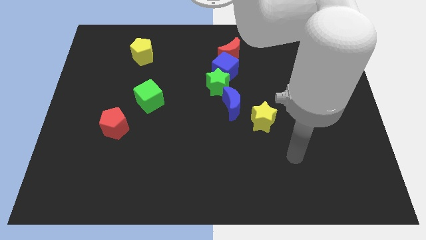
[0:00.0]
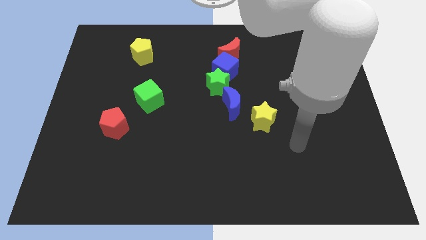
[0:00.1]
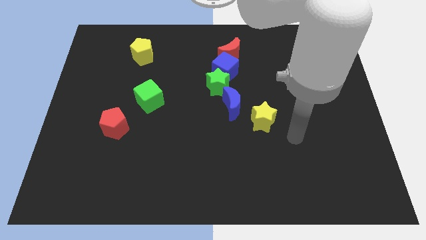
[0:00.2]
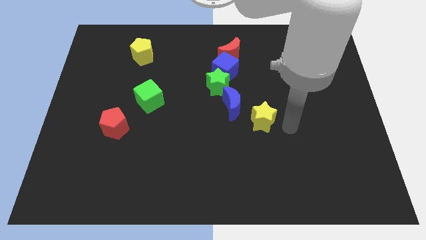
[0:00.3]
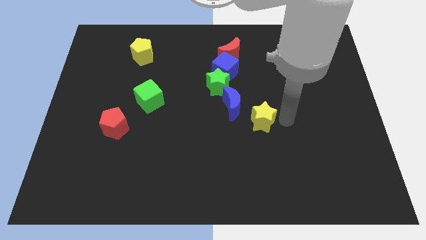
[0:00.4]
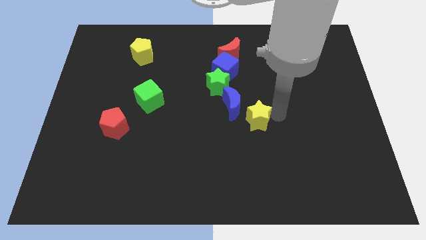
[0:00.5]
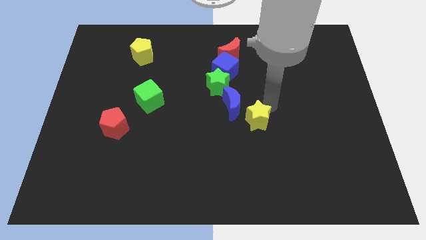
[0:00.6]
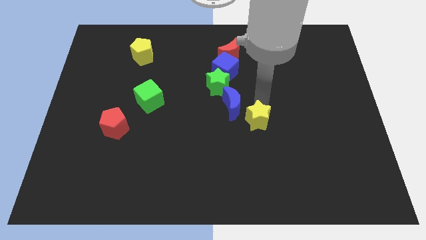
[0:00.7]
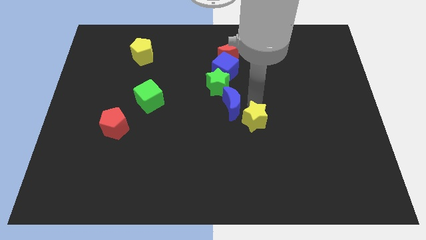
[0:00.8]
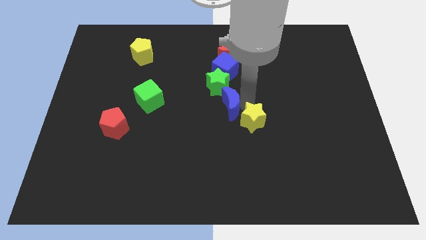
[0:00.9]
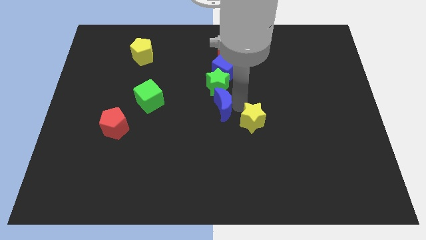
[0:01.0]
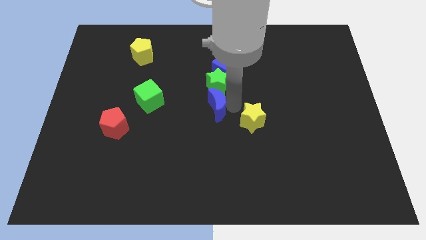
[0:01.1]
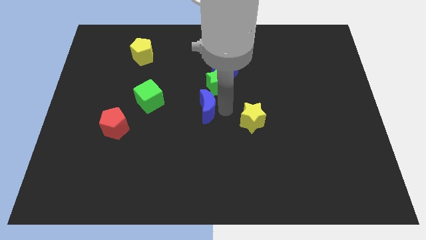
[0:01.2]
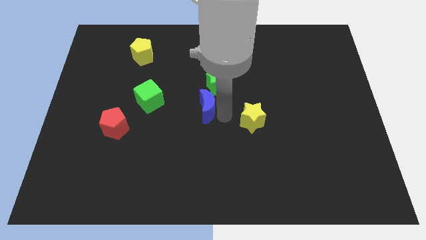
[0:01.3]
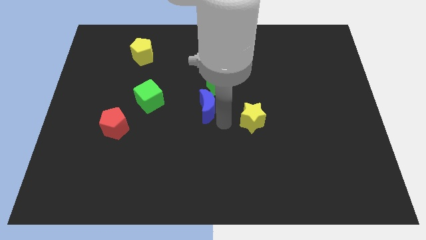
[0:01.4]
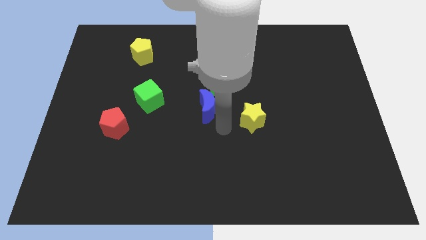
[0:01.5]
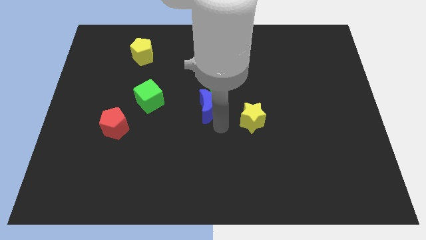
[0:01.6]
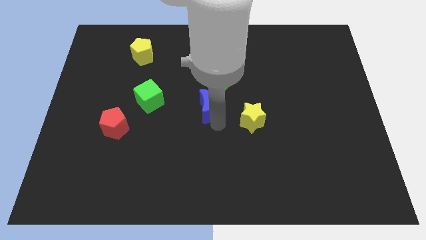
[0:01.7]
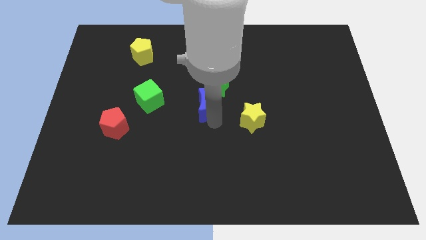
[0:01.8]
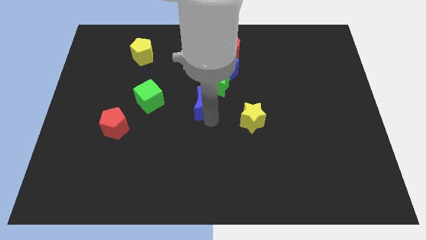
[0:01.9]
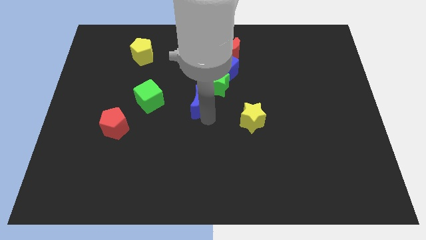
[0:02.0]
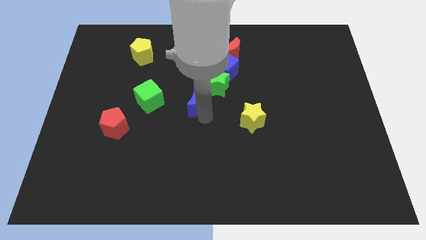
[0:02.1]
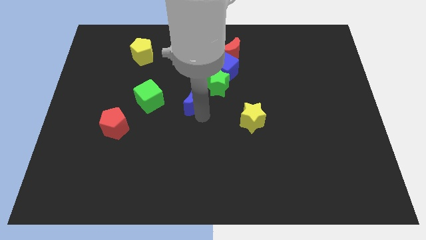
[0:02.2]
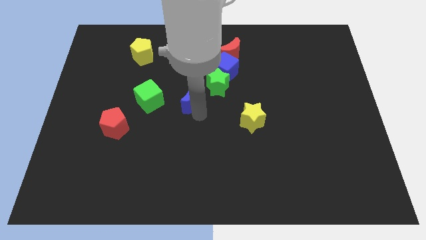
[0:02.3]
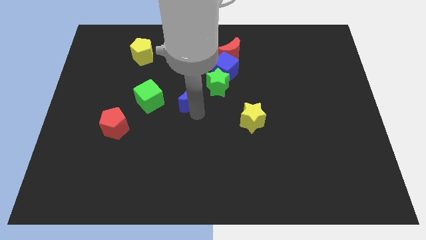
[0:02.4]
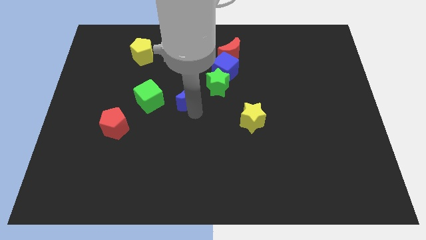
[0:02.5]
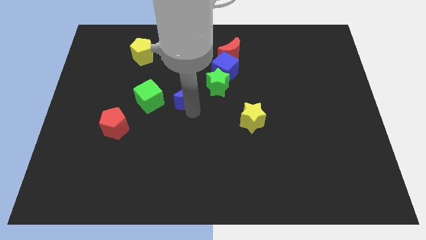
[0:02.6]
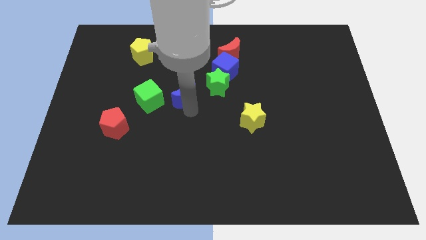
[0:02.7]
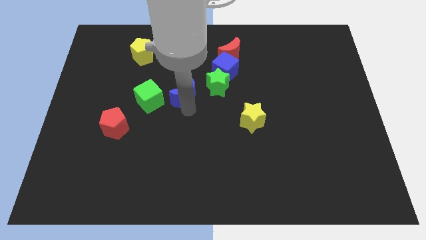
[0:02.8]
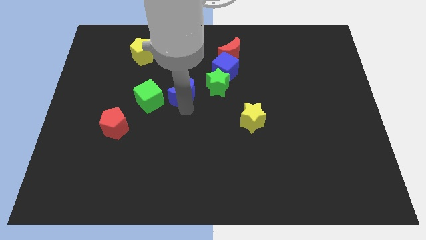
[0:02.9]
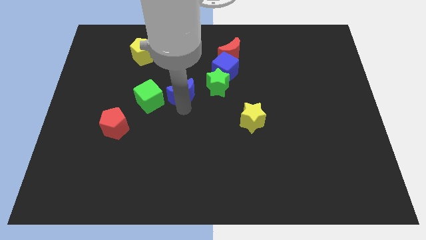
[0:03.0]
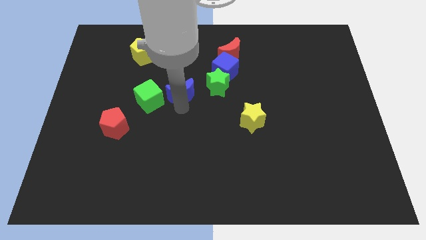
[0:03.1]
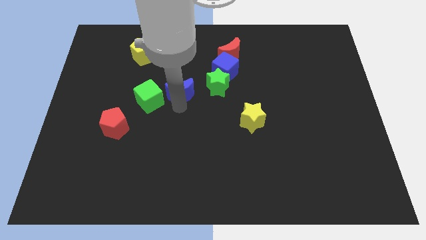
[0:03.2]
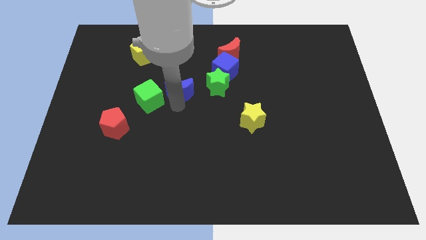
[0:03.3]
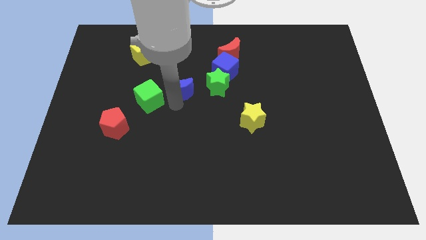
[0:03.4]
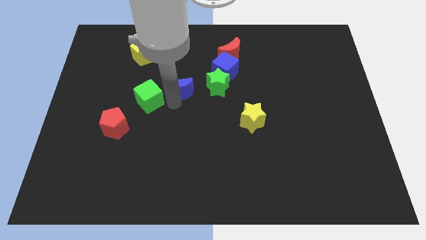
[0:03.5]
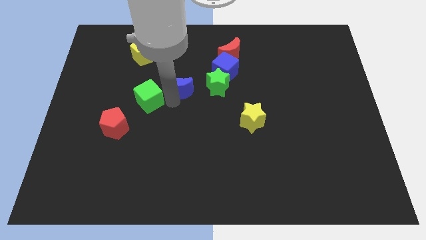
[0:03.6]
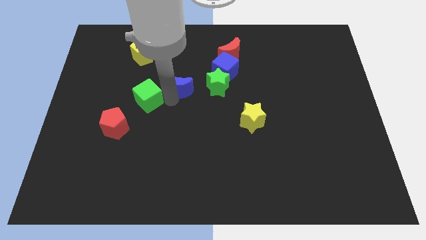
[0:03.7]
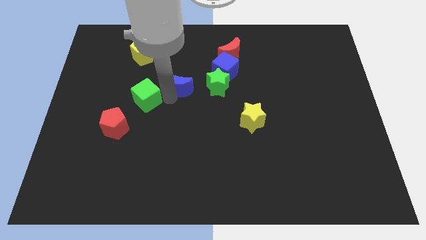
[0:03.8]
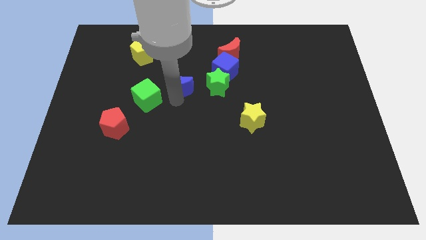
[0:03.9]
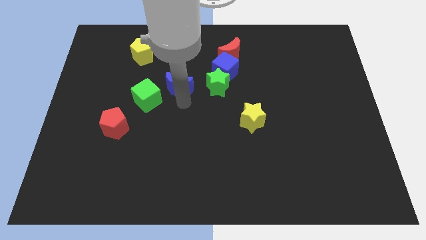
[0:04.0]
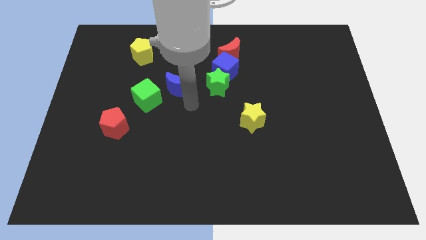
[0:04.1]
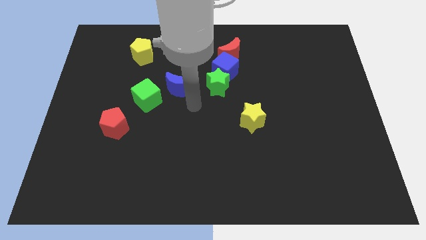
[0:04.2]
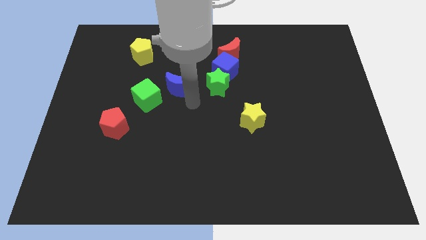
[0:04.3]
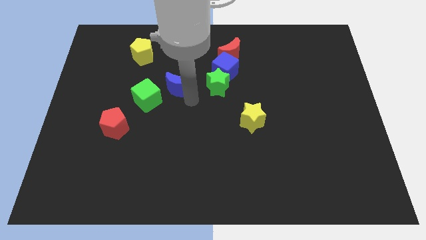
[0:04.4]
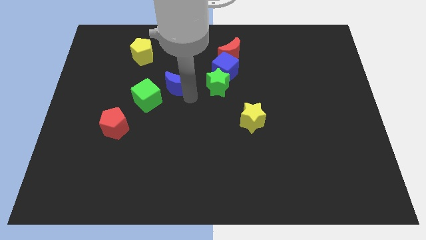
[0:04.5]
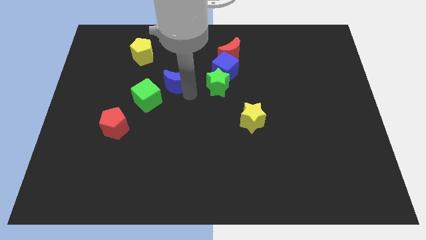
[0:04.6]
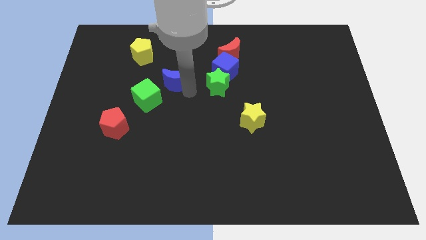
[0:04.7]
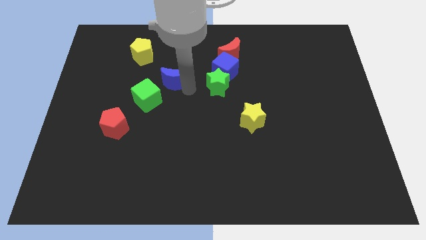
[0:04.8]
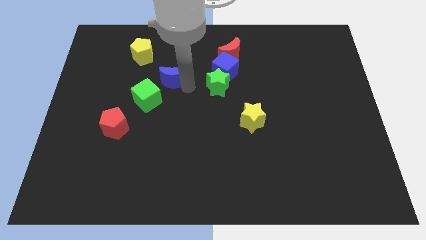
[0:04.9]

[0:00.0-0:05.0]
put the blue moon to the bottom right side of the yellow pentagon

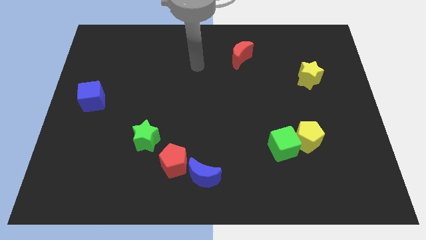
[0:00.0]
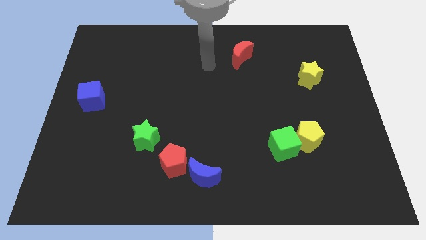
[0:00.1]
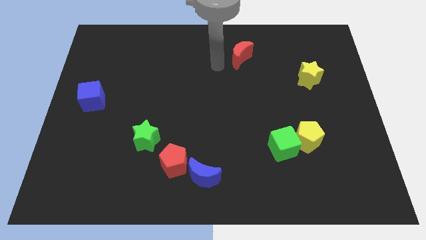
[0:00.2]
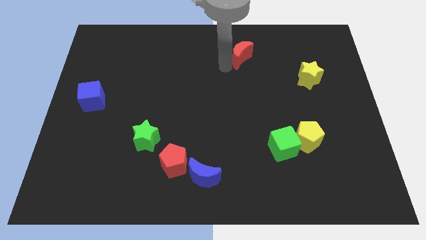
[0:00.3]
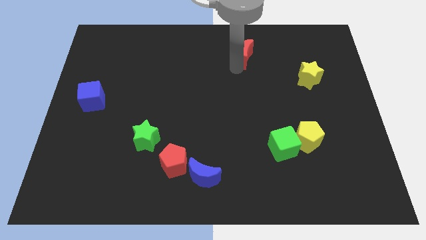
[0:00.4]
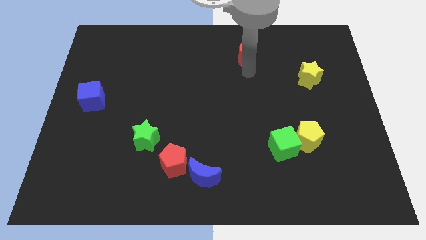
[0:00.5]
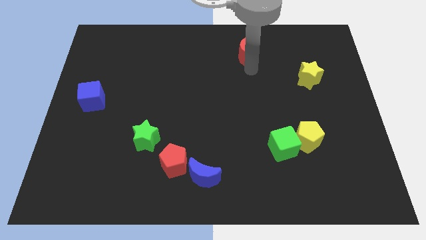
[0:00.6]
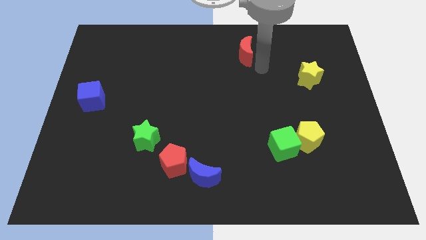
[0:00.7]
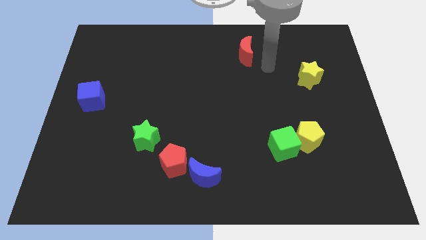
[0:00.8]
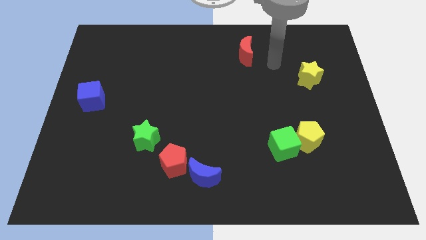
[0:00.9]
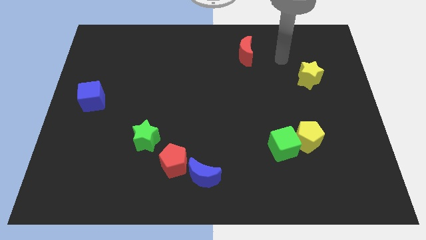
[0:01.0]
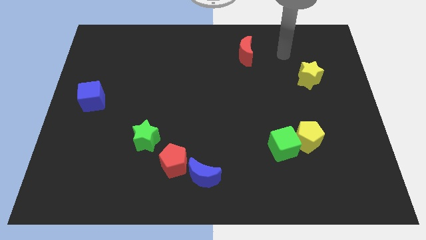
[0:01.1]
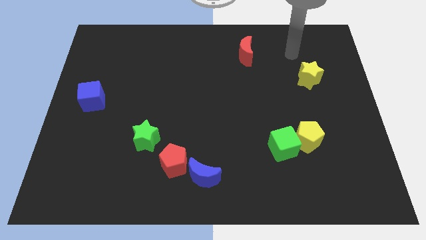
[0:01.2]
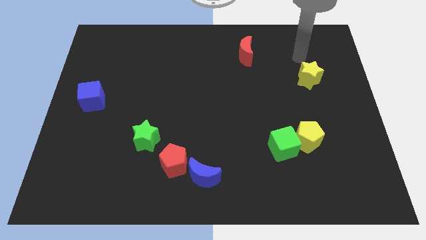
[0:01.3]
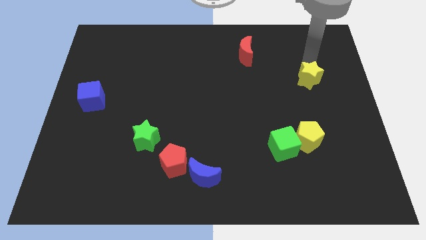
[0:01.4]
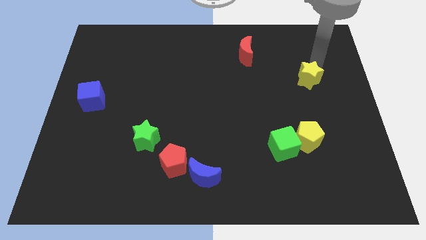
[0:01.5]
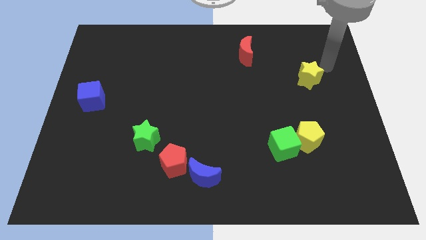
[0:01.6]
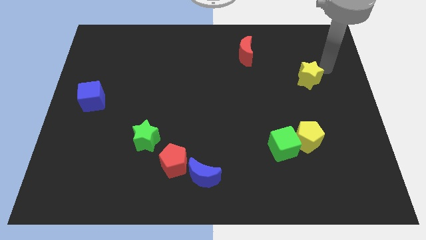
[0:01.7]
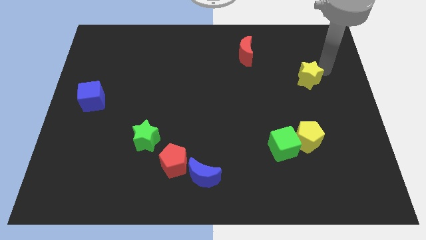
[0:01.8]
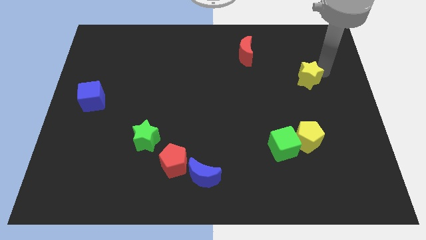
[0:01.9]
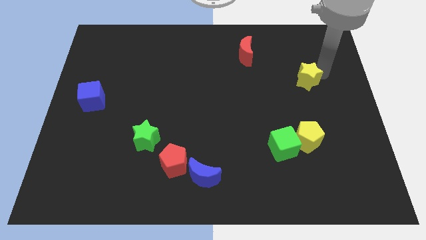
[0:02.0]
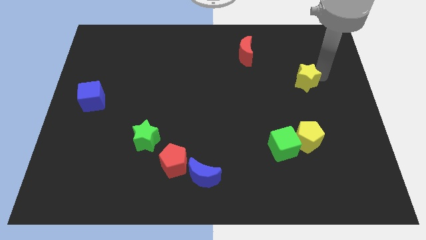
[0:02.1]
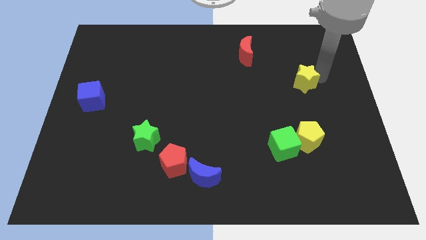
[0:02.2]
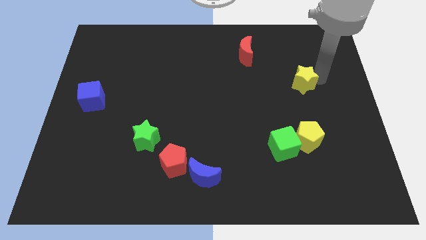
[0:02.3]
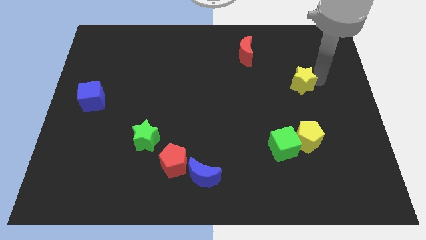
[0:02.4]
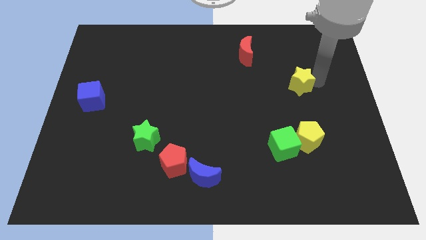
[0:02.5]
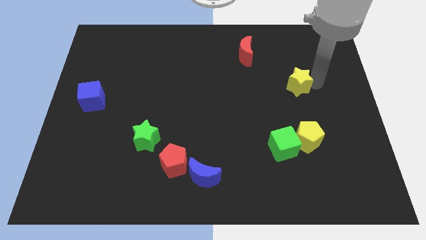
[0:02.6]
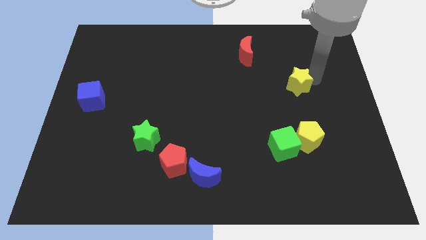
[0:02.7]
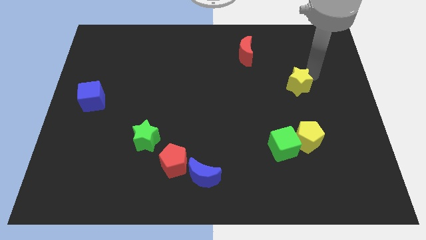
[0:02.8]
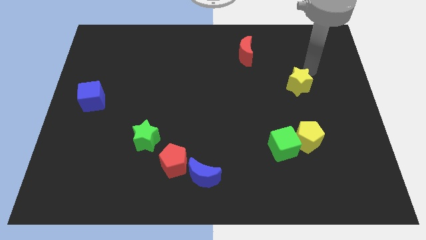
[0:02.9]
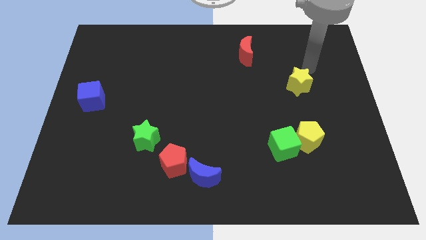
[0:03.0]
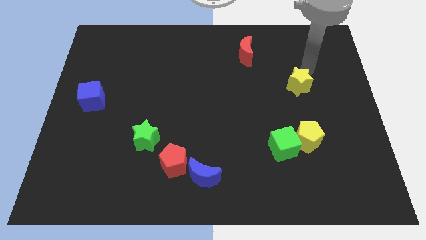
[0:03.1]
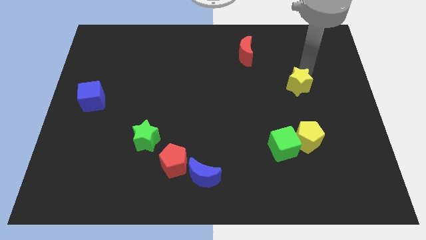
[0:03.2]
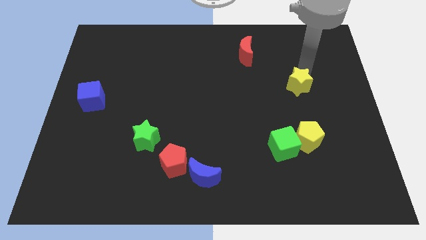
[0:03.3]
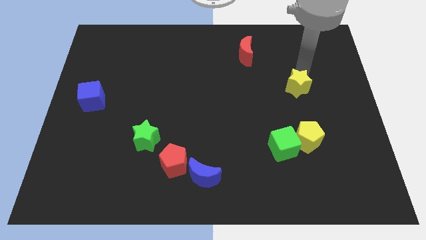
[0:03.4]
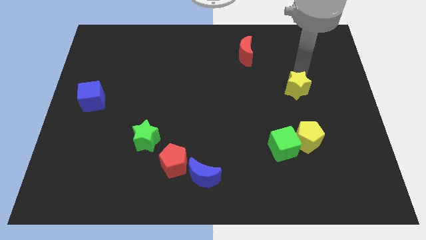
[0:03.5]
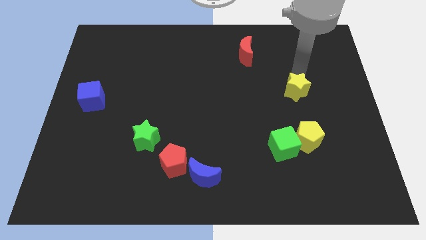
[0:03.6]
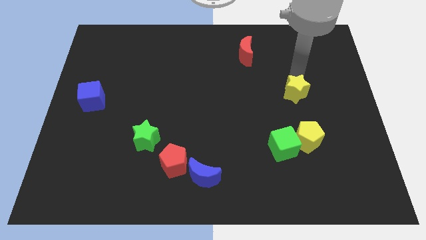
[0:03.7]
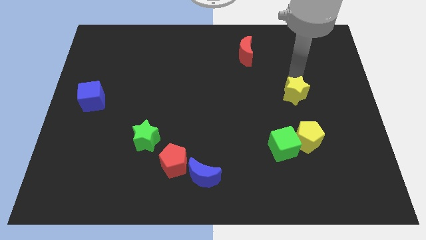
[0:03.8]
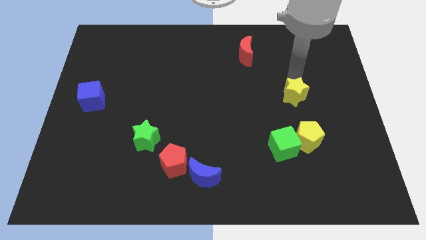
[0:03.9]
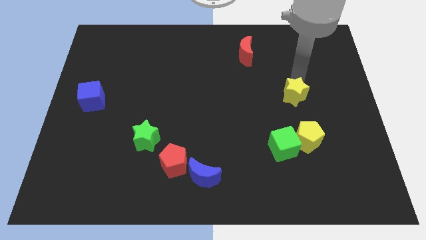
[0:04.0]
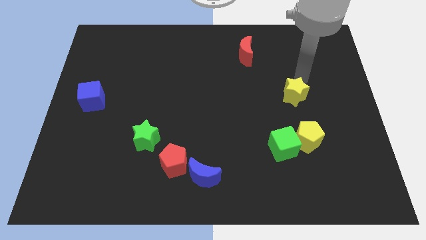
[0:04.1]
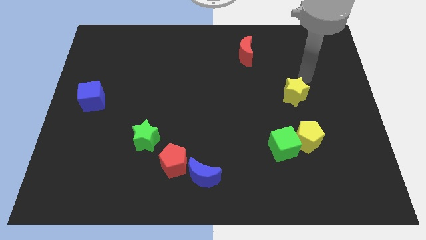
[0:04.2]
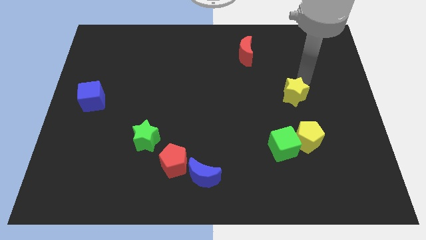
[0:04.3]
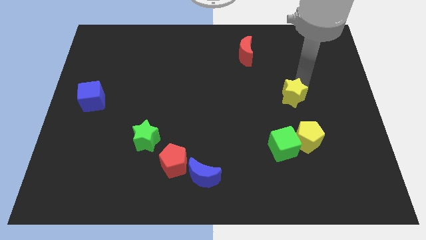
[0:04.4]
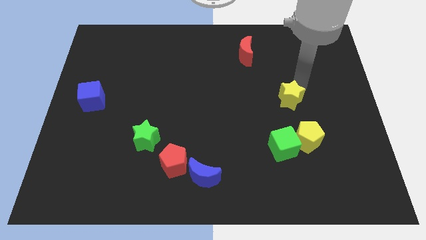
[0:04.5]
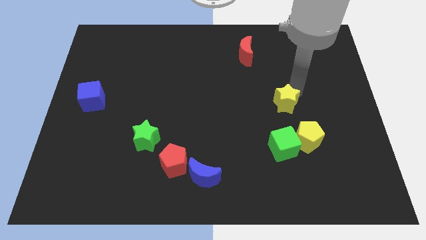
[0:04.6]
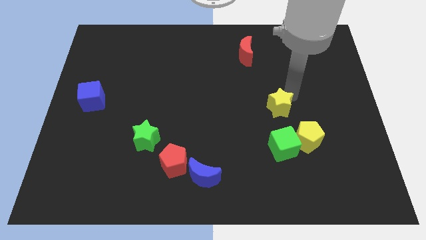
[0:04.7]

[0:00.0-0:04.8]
slide the yellow star diagonally up and to the left of the yellow pentagon
